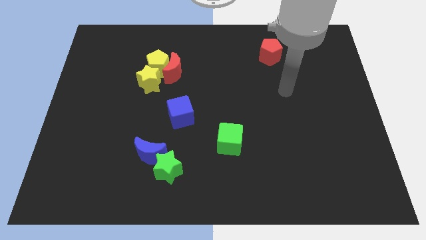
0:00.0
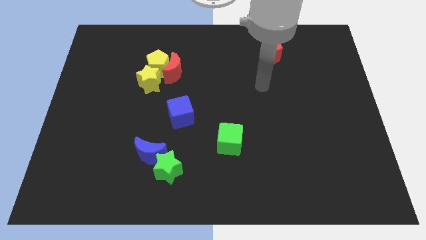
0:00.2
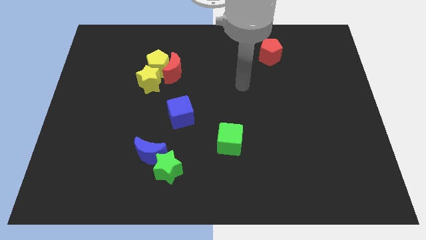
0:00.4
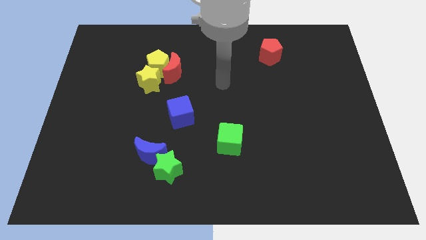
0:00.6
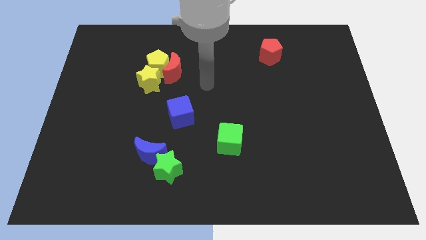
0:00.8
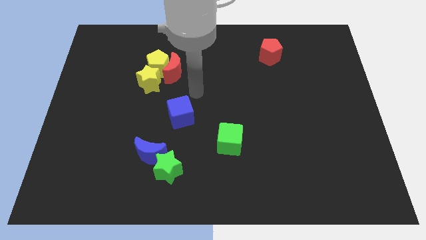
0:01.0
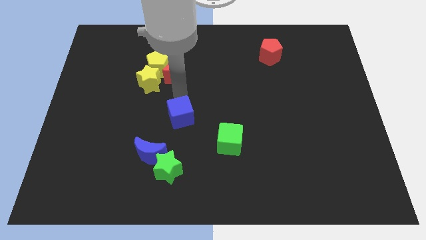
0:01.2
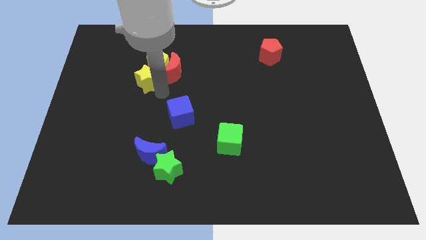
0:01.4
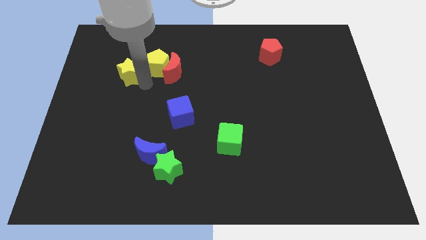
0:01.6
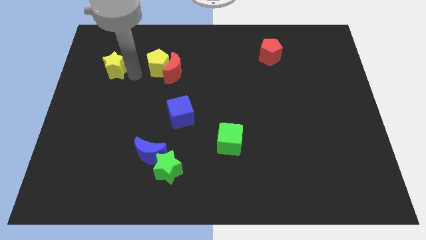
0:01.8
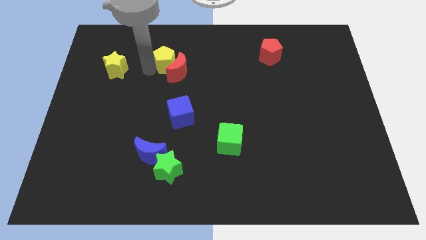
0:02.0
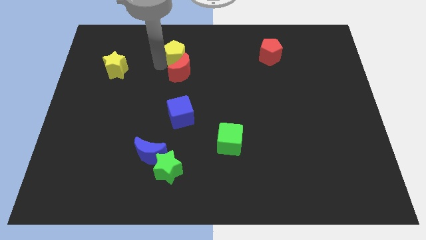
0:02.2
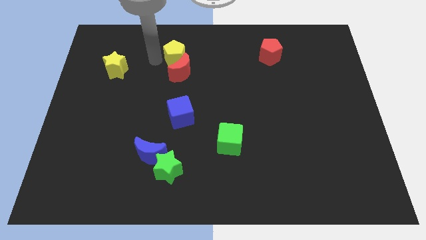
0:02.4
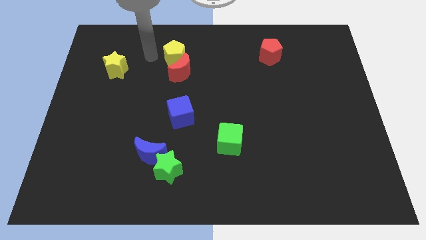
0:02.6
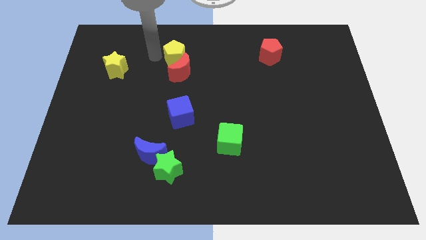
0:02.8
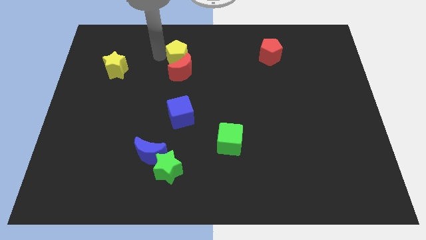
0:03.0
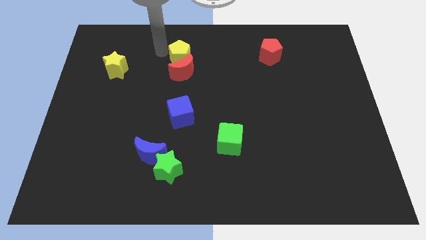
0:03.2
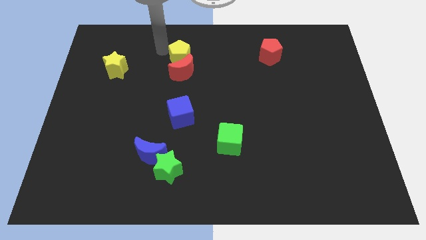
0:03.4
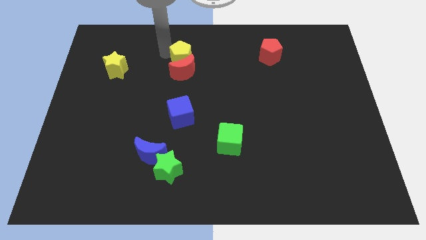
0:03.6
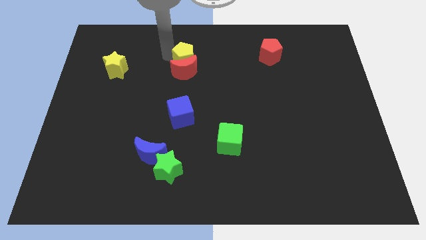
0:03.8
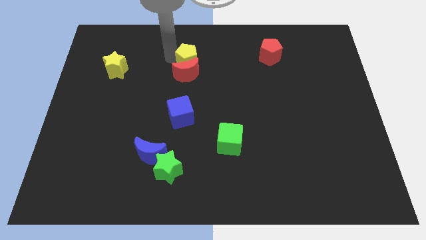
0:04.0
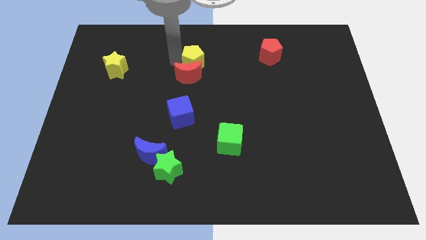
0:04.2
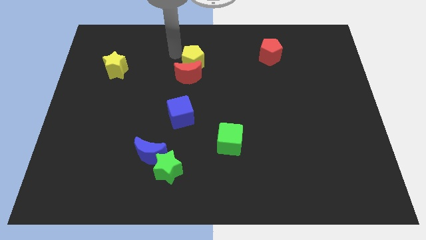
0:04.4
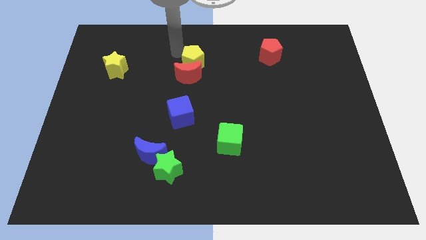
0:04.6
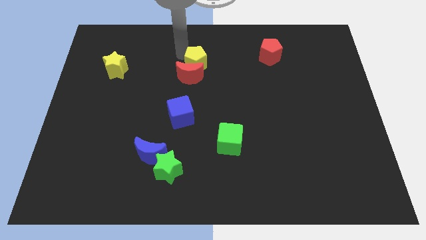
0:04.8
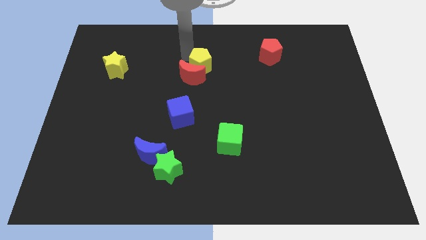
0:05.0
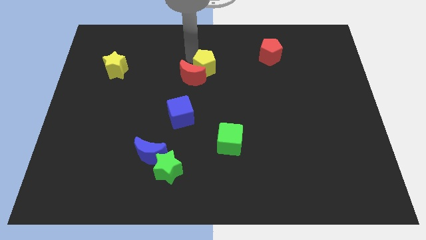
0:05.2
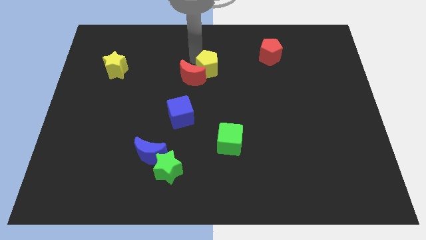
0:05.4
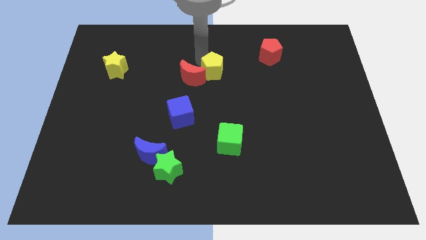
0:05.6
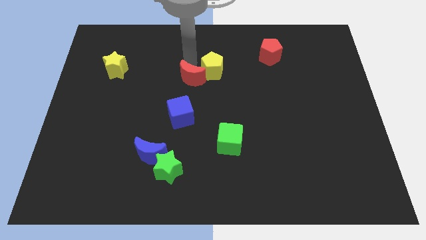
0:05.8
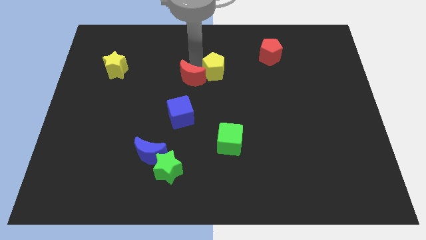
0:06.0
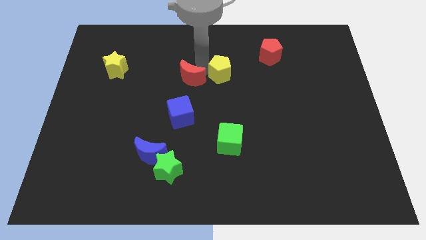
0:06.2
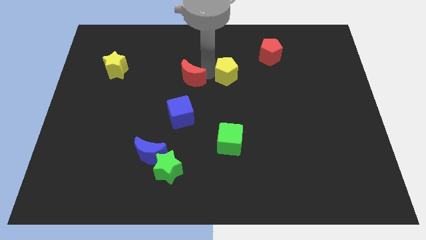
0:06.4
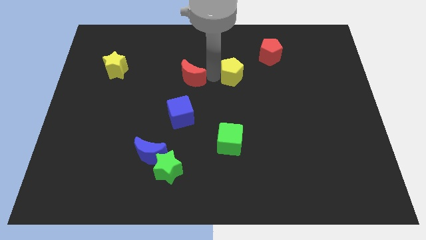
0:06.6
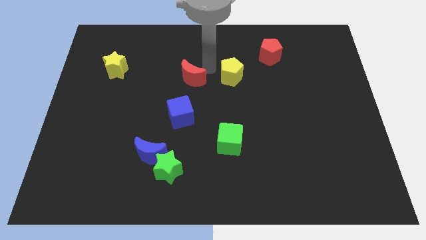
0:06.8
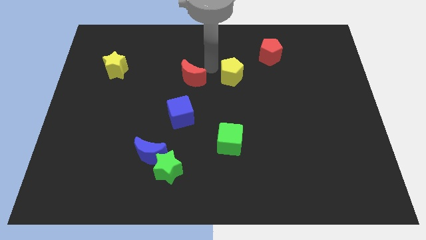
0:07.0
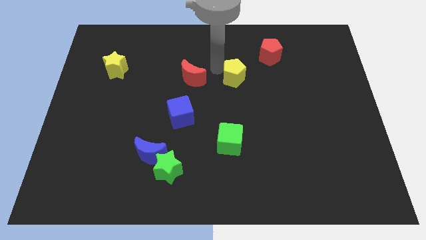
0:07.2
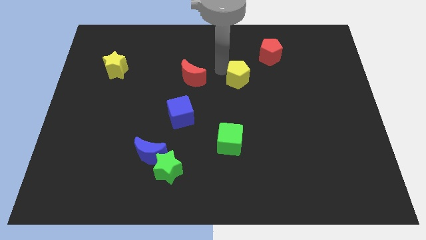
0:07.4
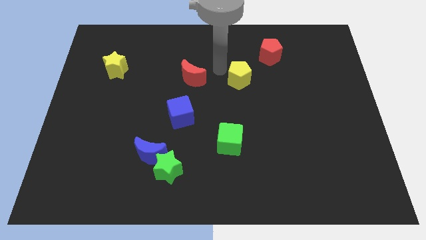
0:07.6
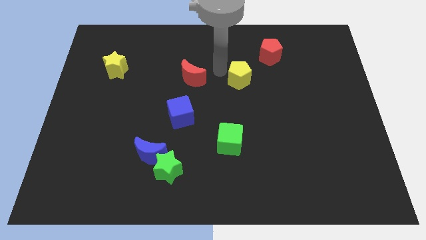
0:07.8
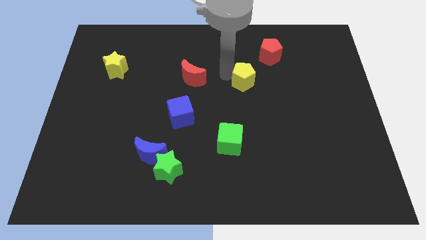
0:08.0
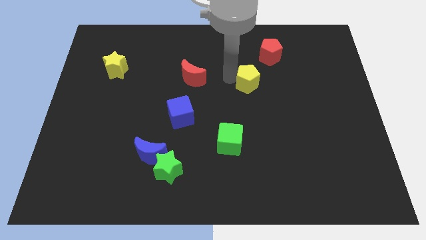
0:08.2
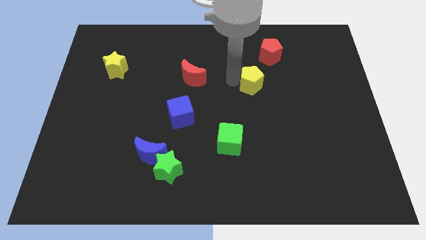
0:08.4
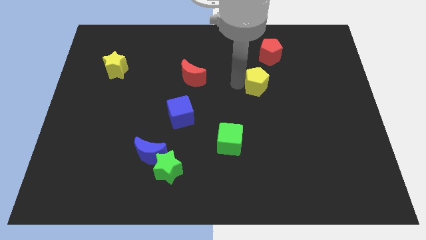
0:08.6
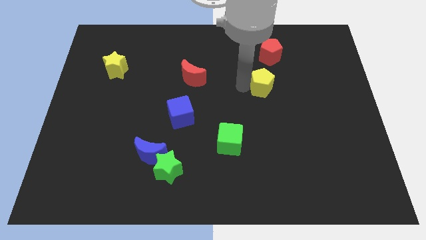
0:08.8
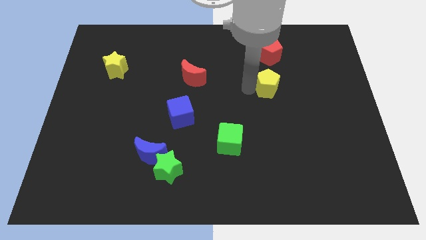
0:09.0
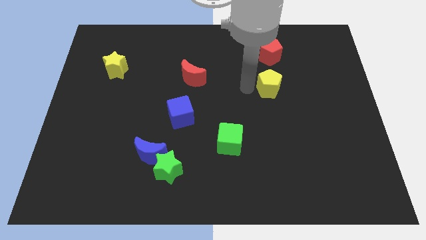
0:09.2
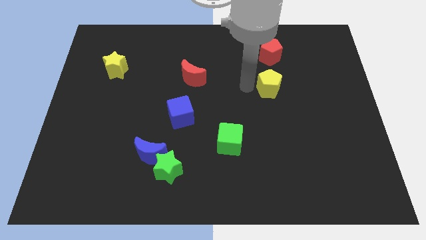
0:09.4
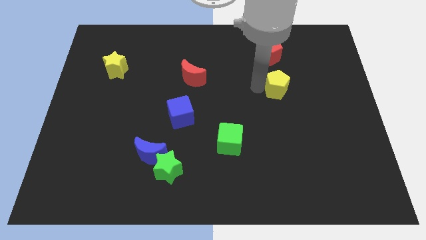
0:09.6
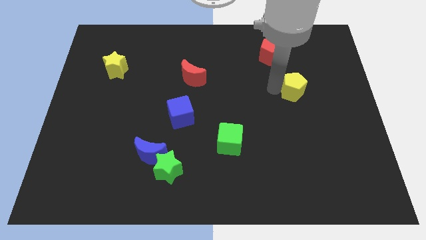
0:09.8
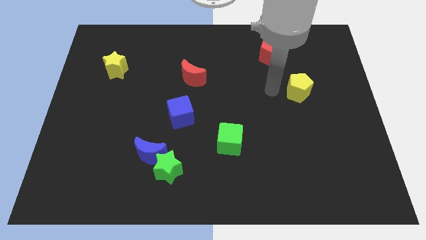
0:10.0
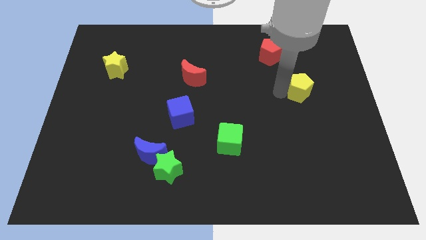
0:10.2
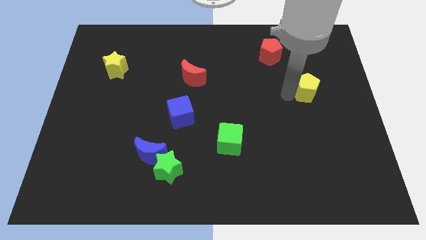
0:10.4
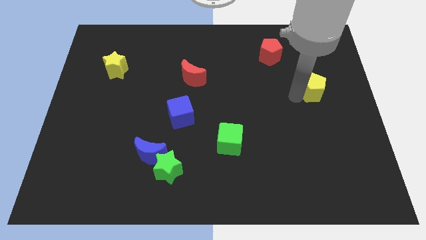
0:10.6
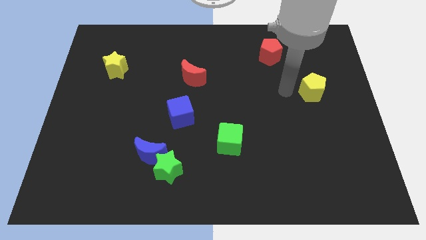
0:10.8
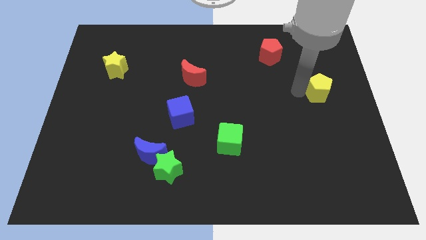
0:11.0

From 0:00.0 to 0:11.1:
move the yellow pentagon to the right side

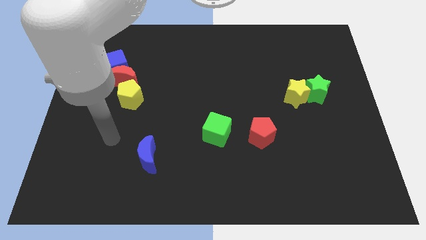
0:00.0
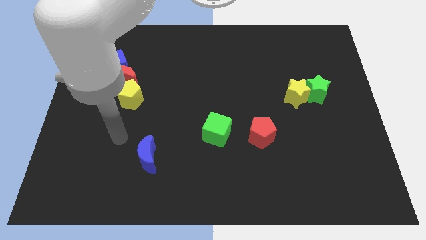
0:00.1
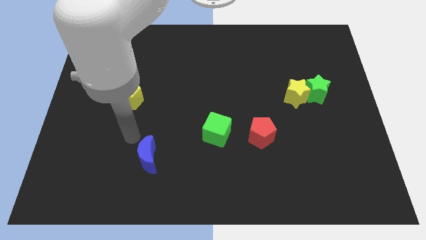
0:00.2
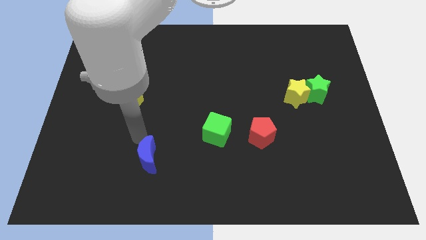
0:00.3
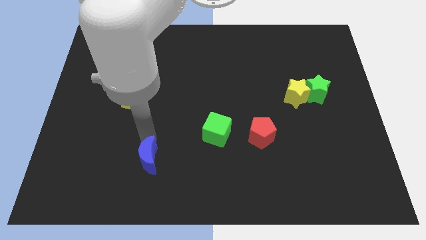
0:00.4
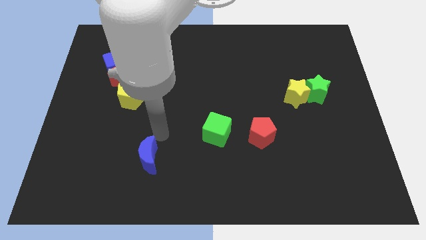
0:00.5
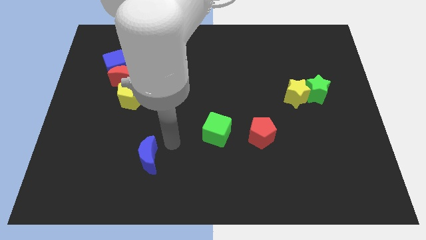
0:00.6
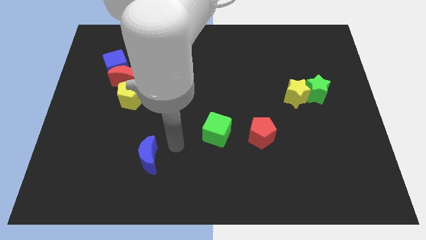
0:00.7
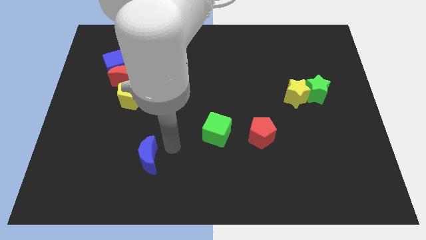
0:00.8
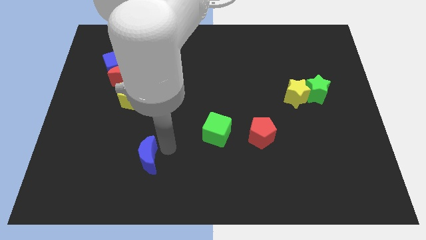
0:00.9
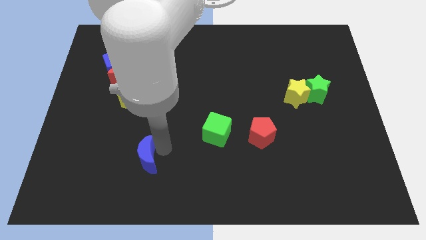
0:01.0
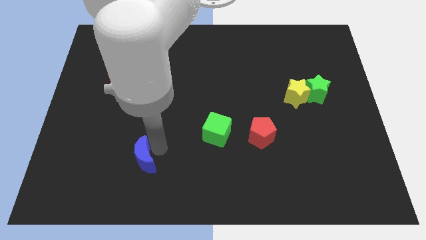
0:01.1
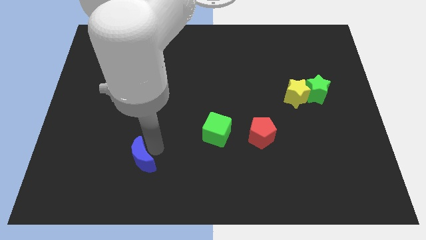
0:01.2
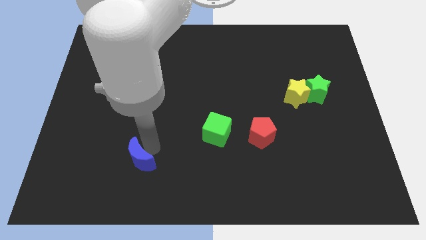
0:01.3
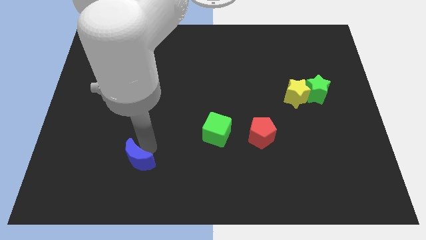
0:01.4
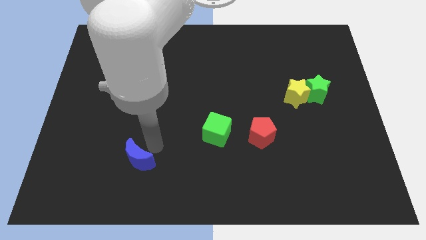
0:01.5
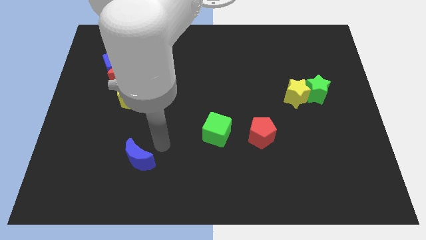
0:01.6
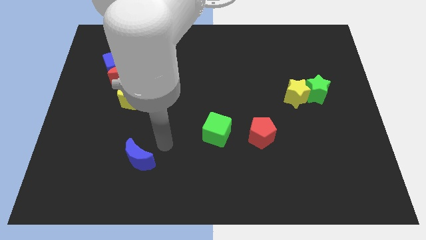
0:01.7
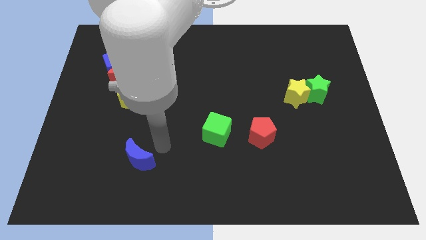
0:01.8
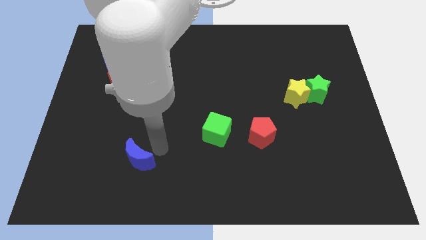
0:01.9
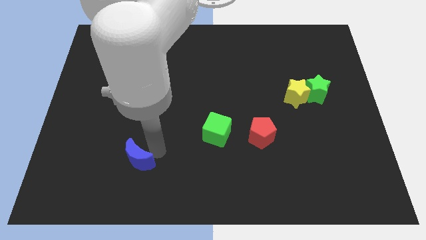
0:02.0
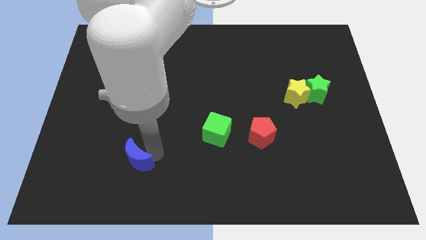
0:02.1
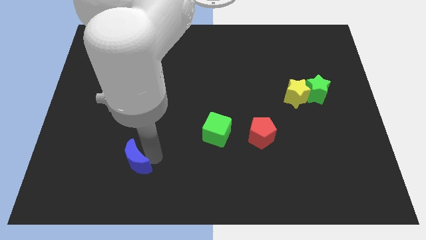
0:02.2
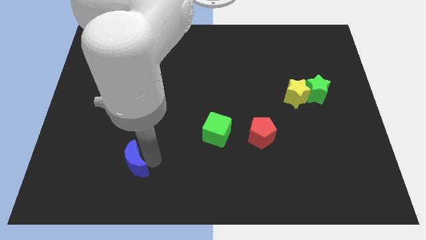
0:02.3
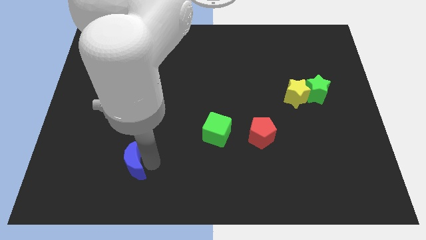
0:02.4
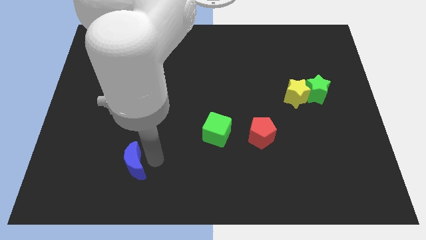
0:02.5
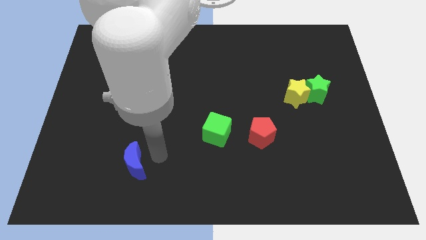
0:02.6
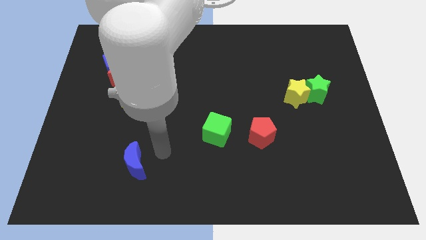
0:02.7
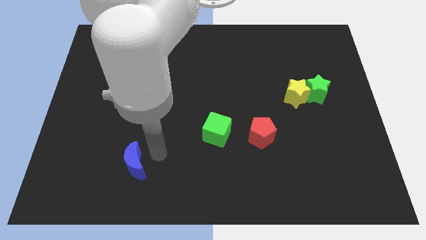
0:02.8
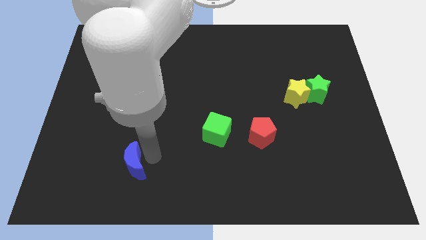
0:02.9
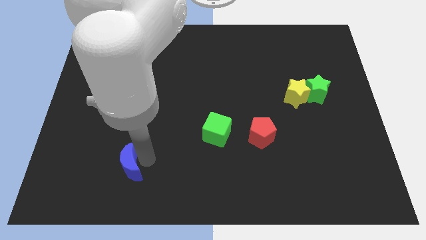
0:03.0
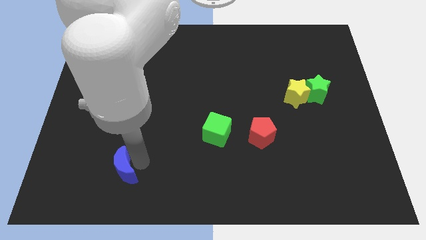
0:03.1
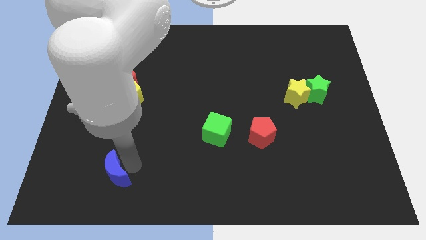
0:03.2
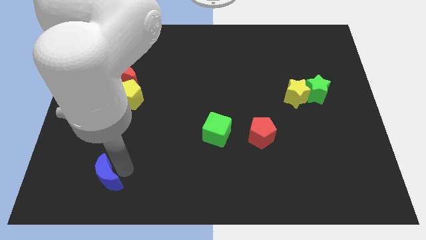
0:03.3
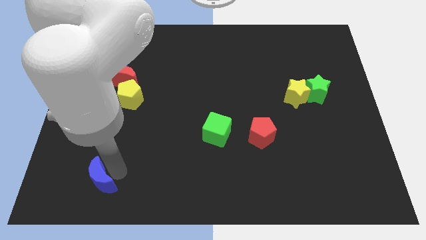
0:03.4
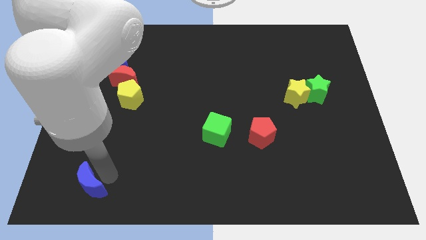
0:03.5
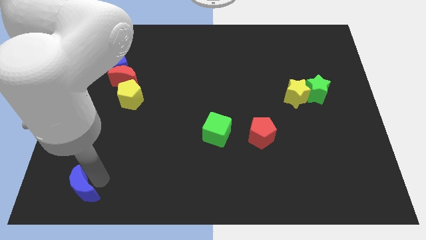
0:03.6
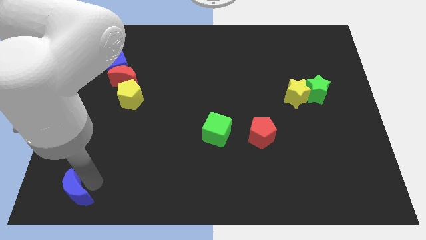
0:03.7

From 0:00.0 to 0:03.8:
move the blue moon to the bottom left of the board
